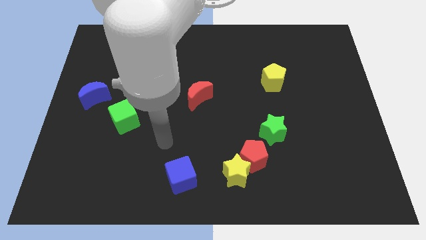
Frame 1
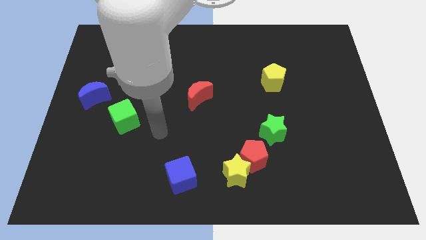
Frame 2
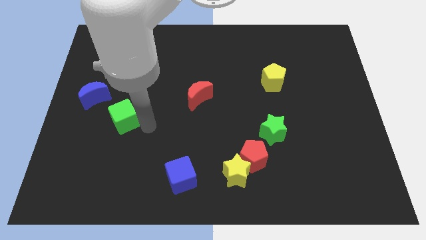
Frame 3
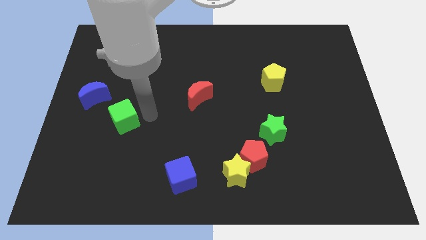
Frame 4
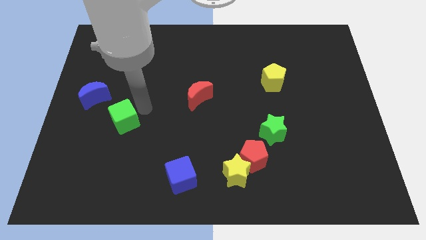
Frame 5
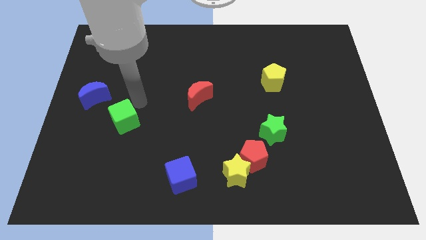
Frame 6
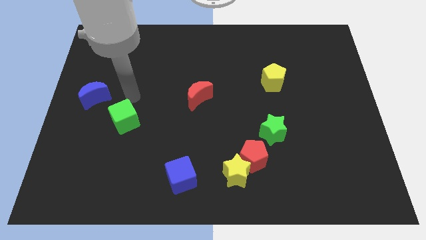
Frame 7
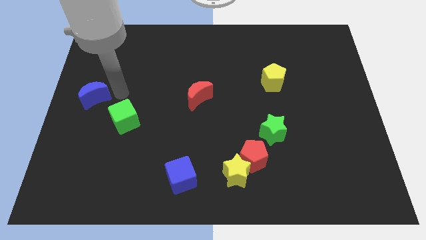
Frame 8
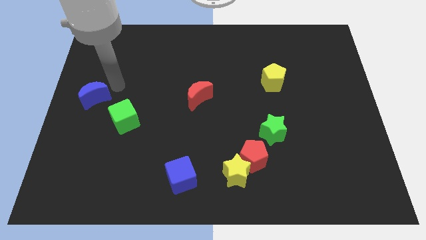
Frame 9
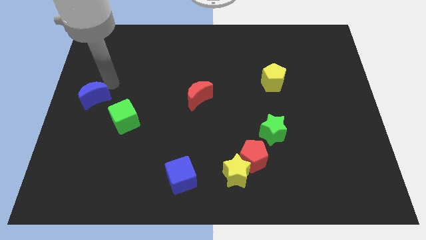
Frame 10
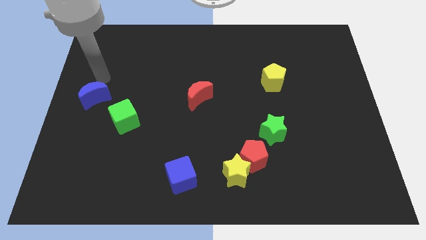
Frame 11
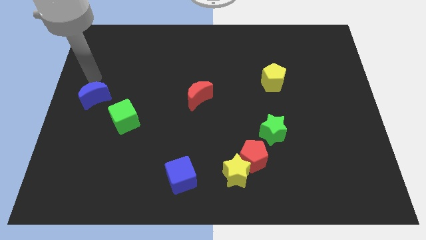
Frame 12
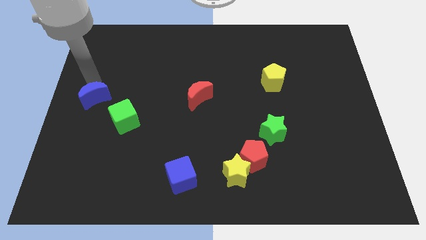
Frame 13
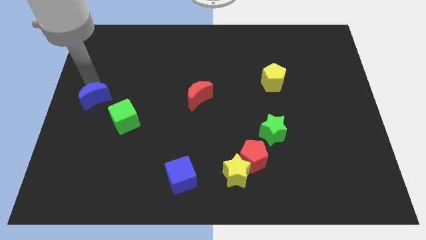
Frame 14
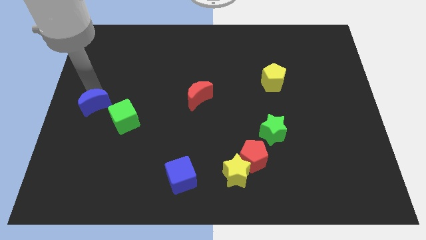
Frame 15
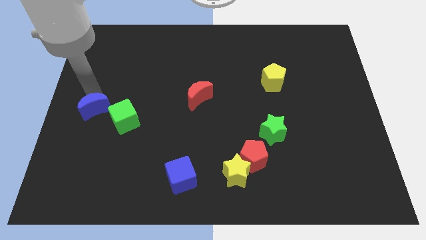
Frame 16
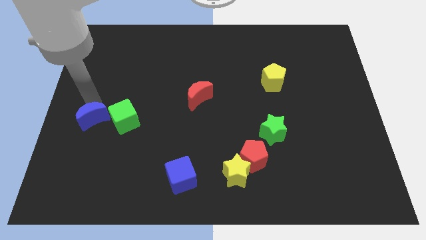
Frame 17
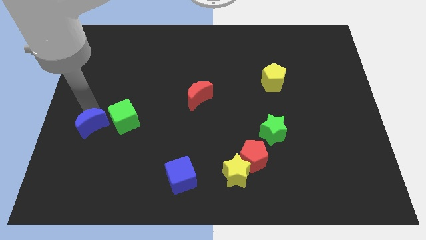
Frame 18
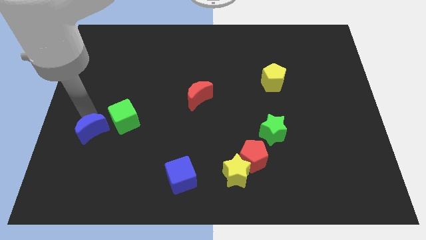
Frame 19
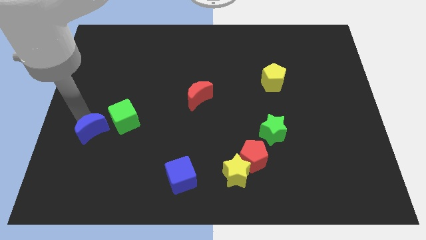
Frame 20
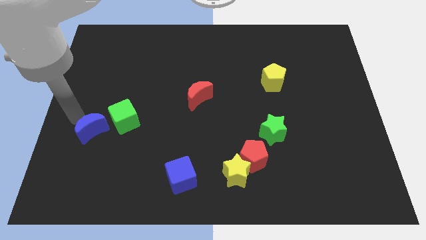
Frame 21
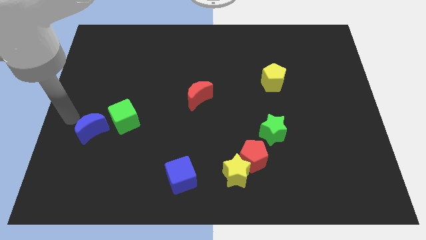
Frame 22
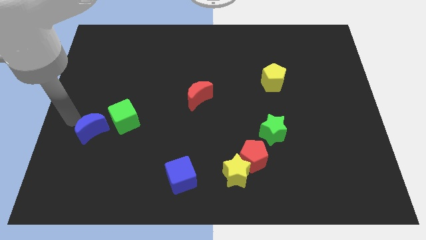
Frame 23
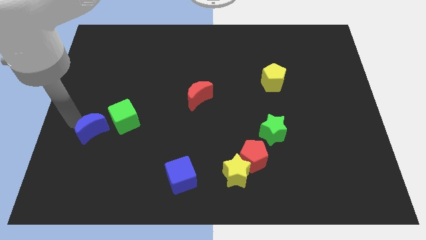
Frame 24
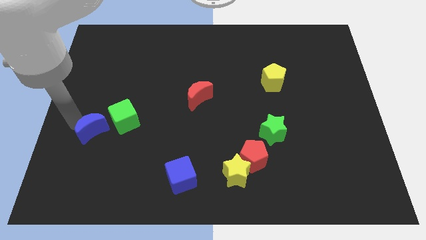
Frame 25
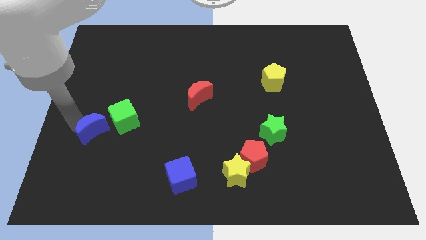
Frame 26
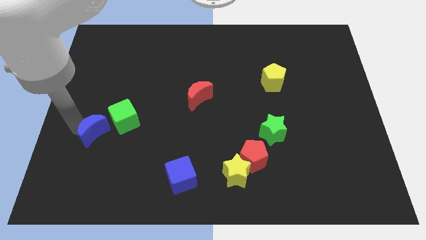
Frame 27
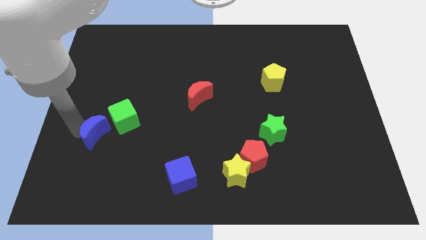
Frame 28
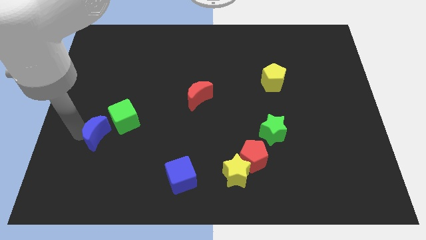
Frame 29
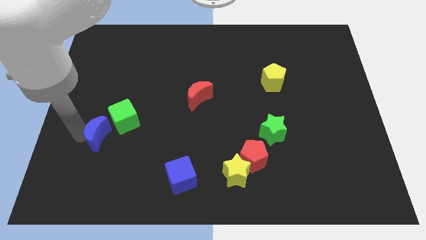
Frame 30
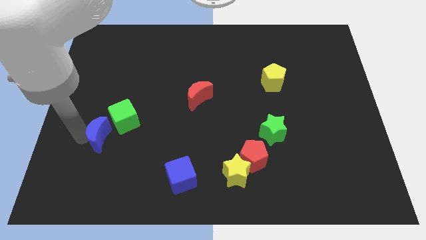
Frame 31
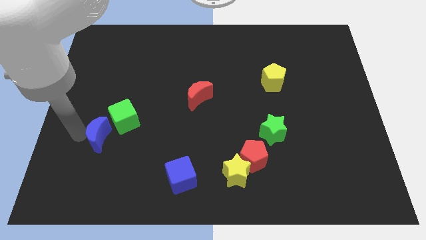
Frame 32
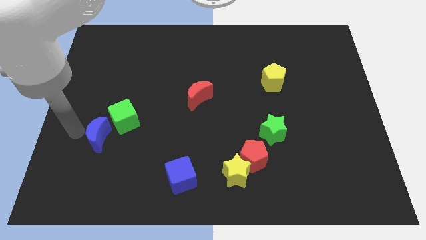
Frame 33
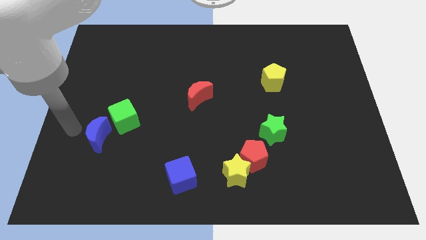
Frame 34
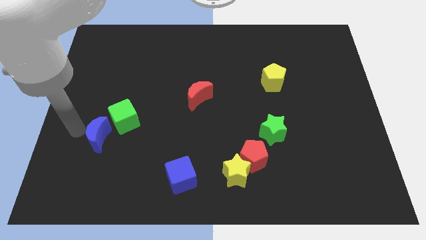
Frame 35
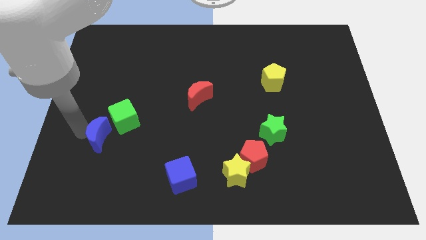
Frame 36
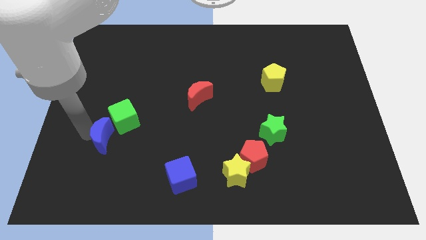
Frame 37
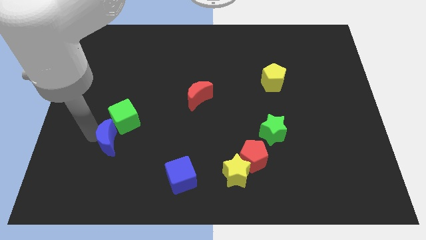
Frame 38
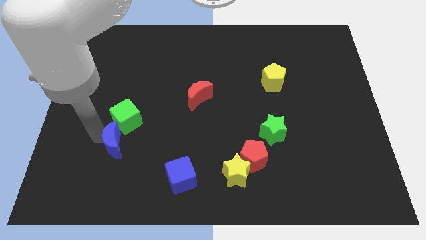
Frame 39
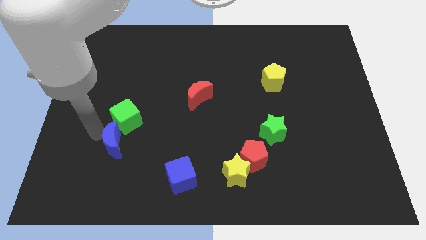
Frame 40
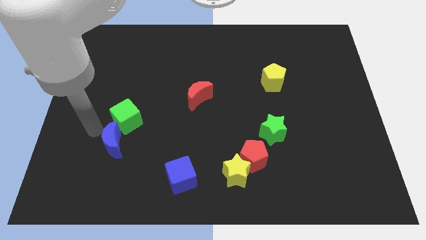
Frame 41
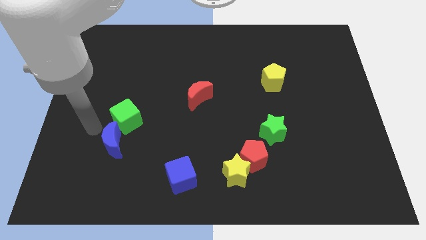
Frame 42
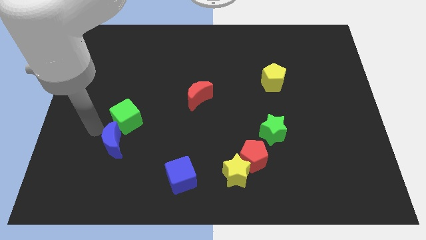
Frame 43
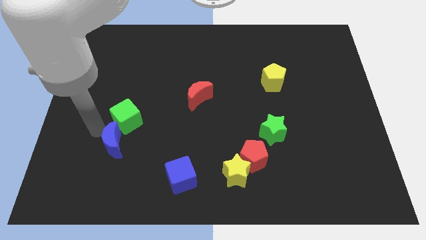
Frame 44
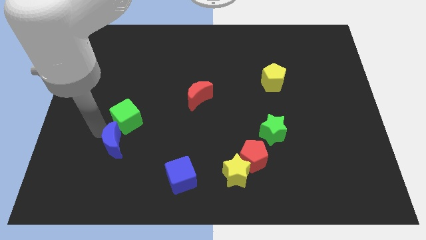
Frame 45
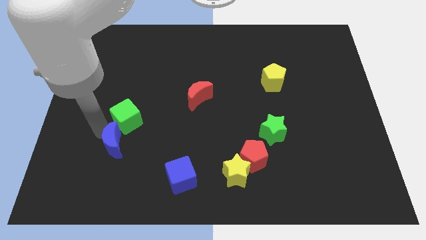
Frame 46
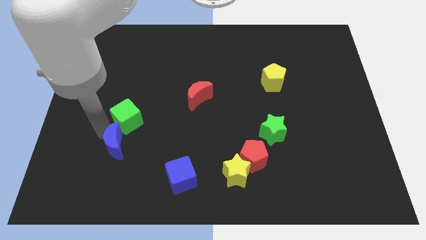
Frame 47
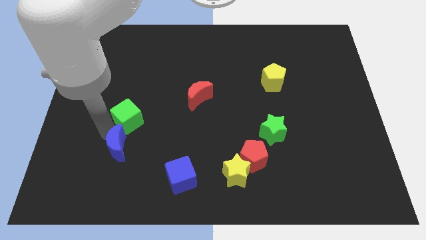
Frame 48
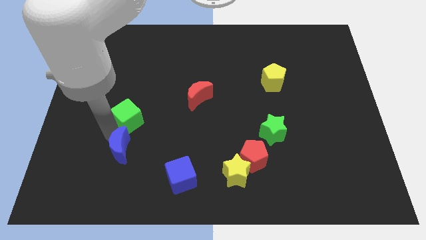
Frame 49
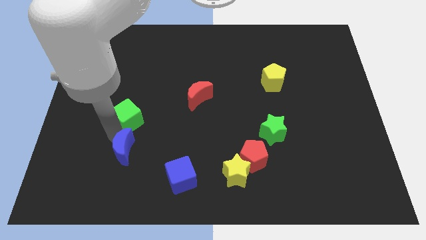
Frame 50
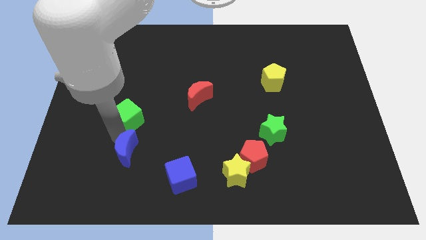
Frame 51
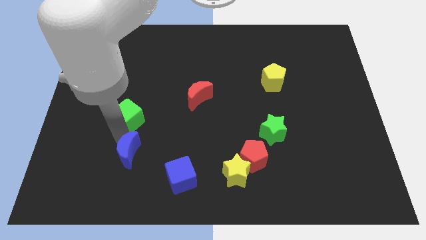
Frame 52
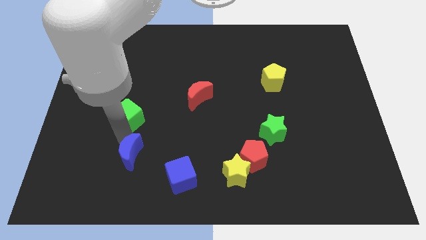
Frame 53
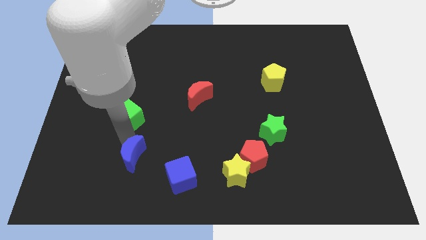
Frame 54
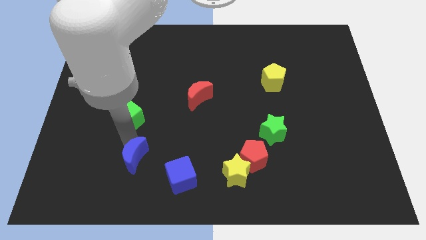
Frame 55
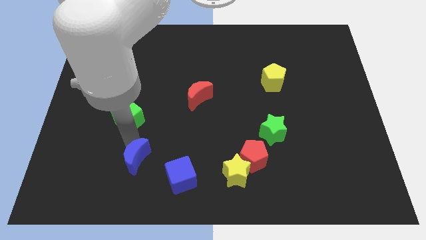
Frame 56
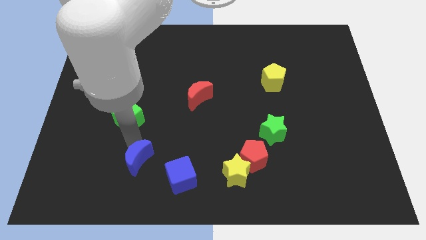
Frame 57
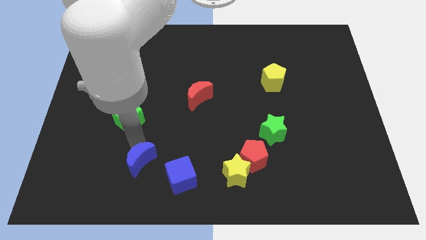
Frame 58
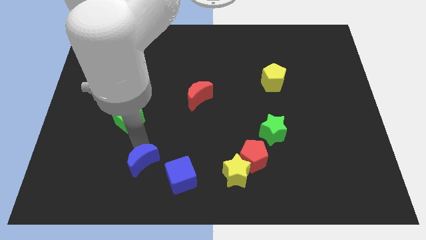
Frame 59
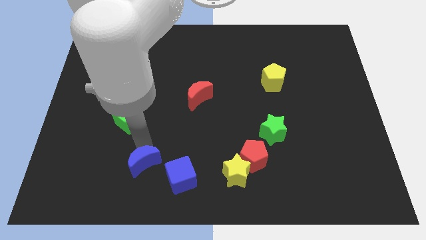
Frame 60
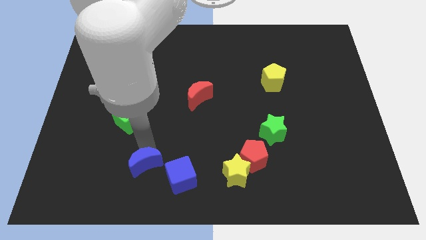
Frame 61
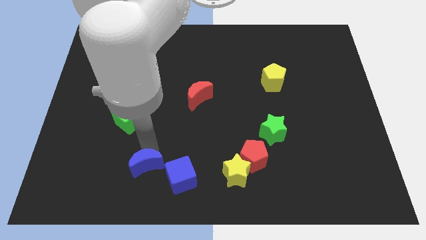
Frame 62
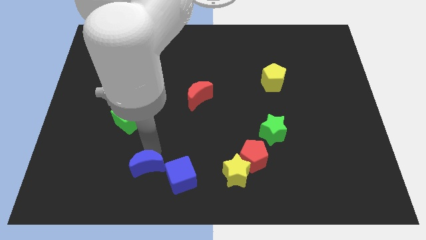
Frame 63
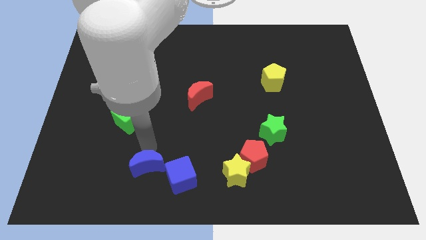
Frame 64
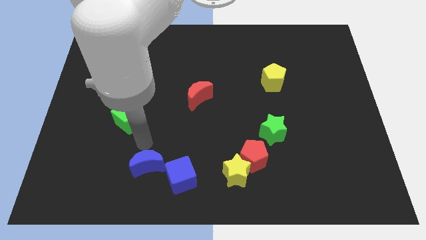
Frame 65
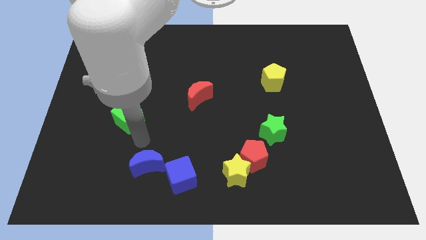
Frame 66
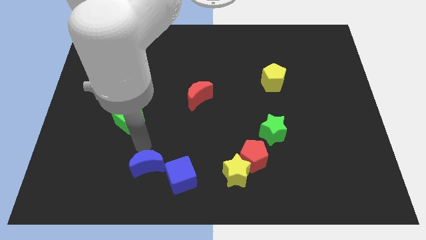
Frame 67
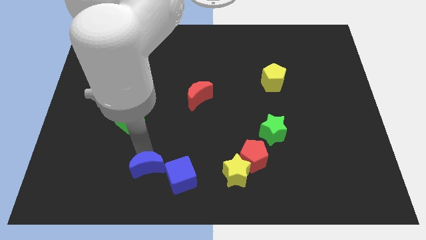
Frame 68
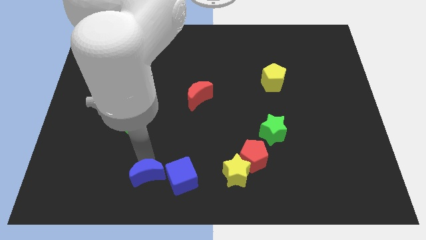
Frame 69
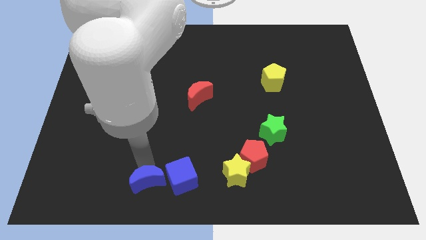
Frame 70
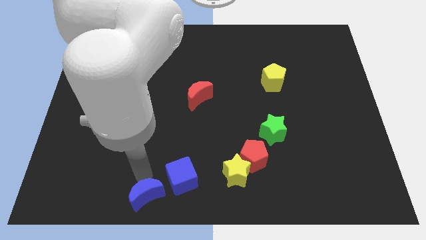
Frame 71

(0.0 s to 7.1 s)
slide the blue moon to the bottom side
